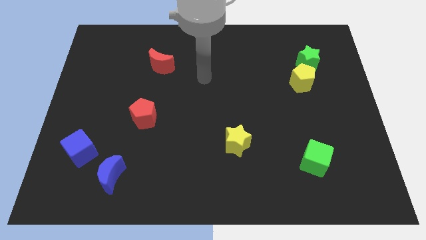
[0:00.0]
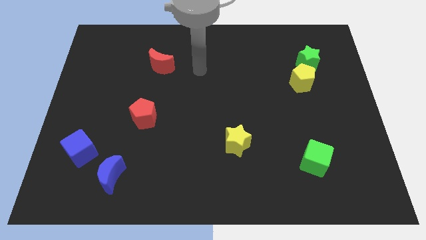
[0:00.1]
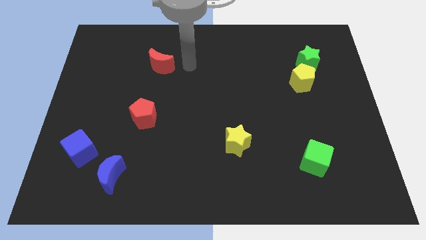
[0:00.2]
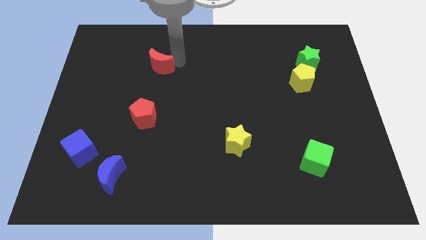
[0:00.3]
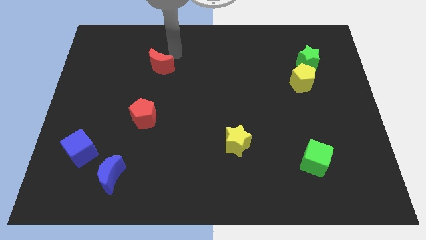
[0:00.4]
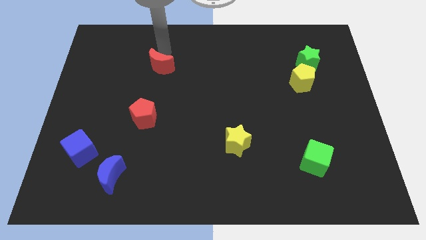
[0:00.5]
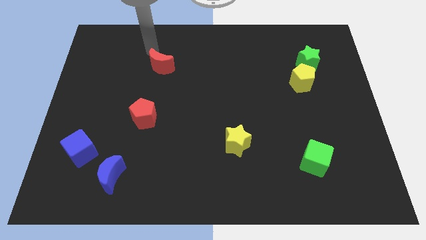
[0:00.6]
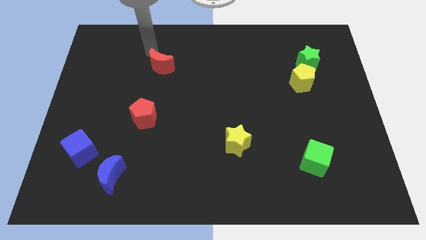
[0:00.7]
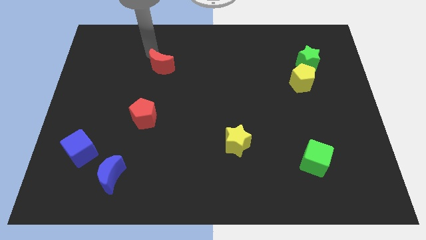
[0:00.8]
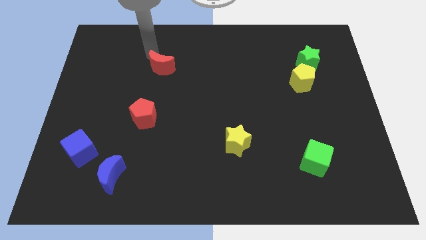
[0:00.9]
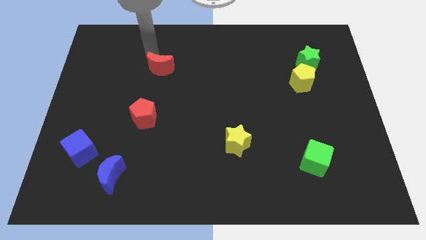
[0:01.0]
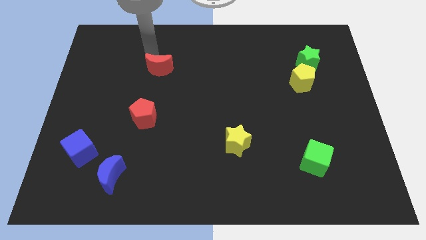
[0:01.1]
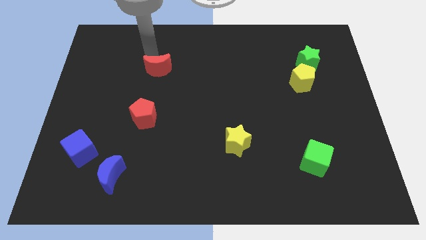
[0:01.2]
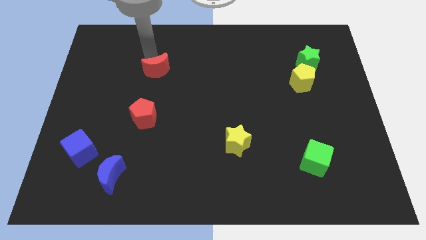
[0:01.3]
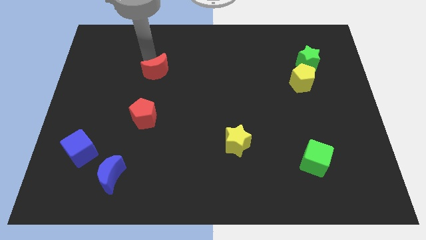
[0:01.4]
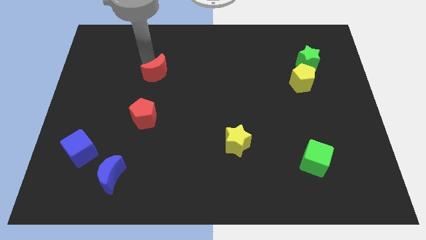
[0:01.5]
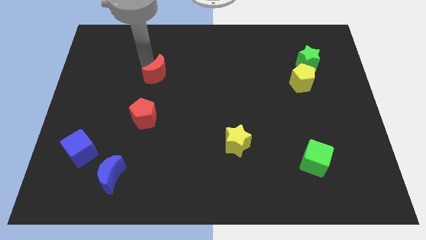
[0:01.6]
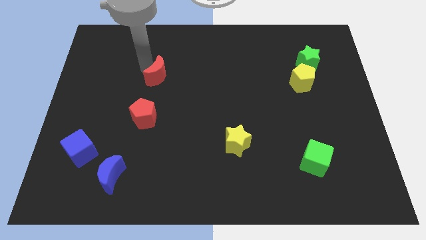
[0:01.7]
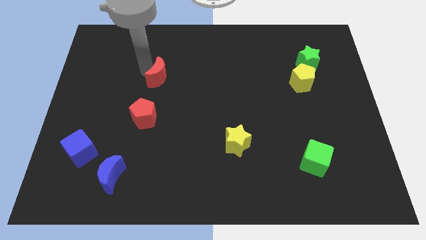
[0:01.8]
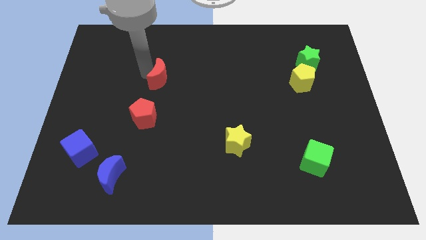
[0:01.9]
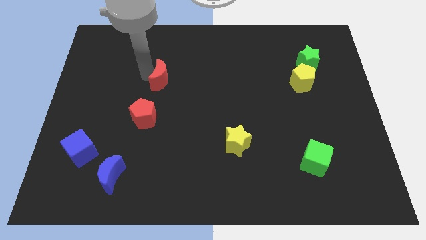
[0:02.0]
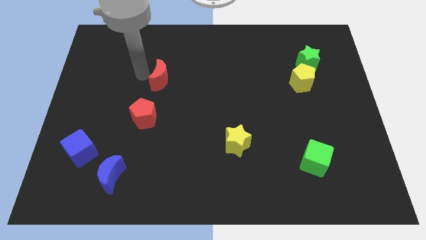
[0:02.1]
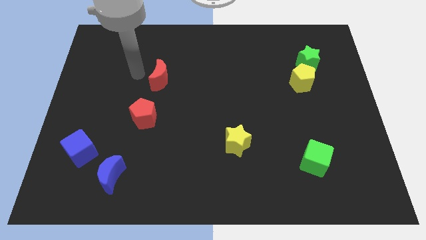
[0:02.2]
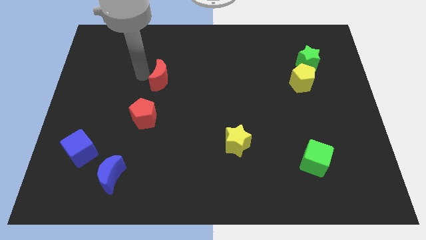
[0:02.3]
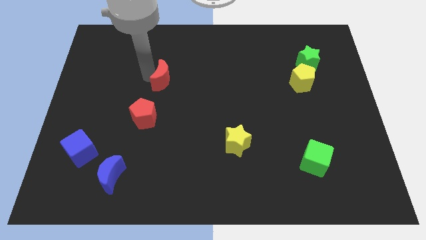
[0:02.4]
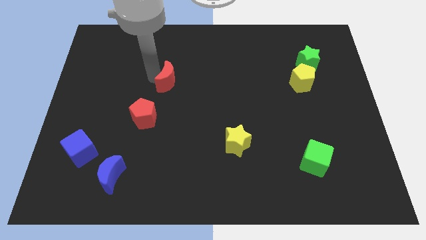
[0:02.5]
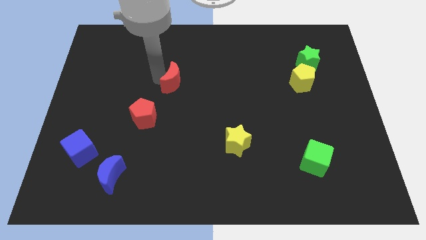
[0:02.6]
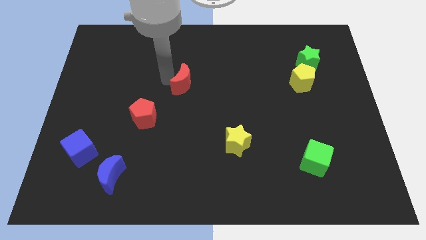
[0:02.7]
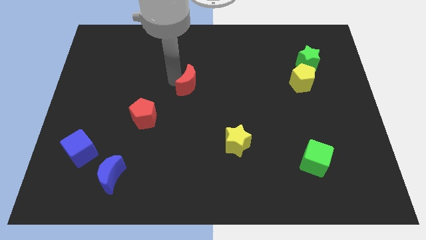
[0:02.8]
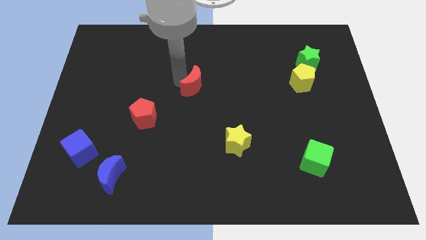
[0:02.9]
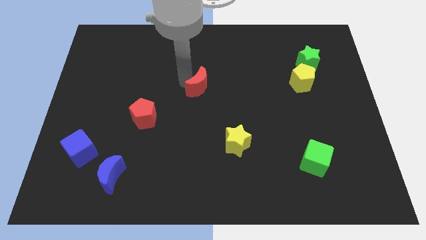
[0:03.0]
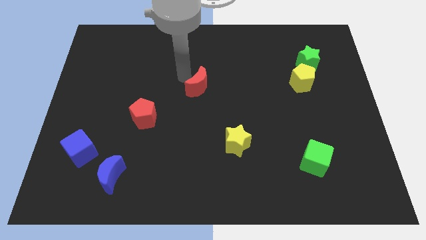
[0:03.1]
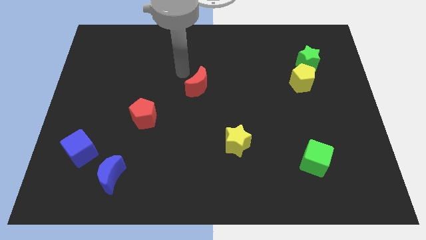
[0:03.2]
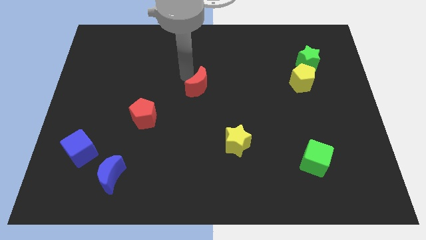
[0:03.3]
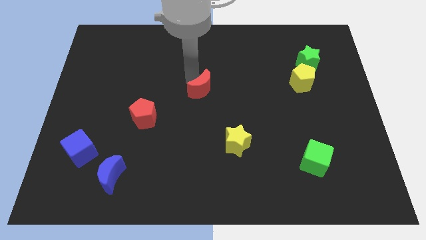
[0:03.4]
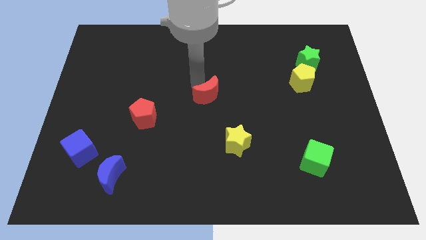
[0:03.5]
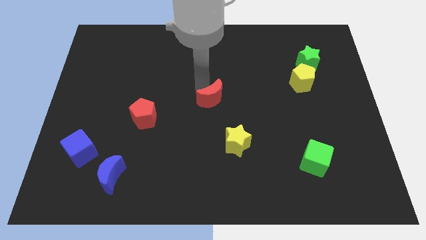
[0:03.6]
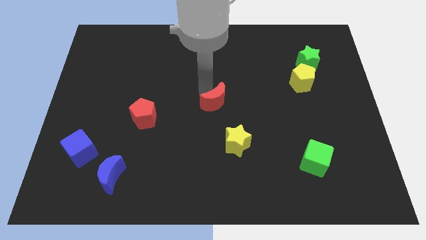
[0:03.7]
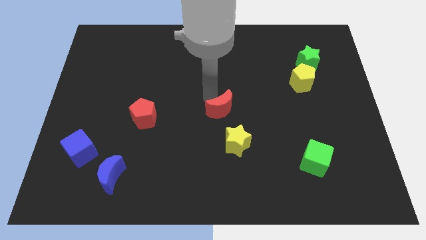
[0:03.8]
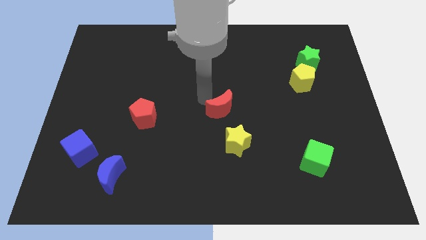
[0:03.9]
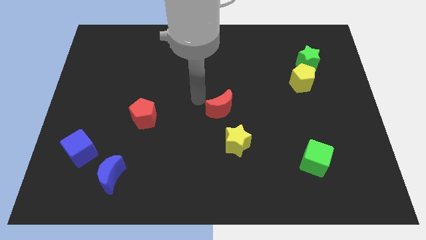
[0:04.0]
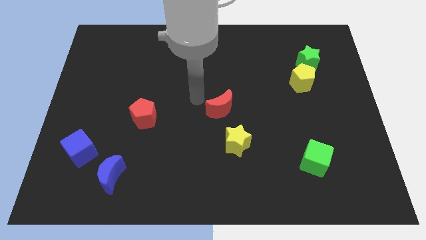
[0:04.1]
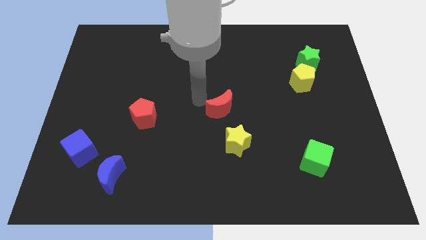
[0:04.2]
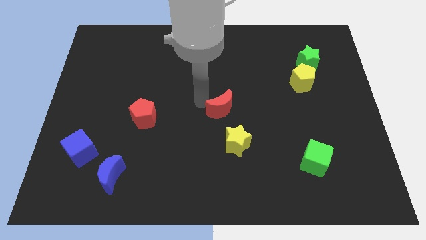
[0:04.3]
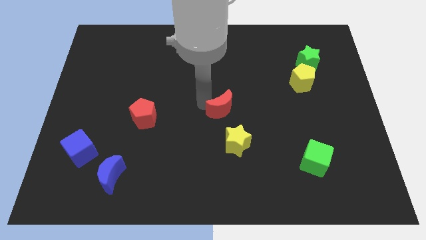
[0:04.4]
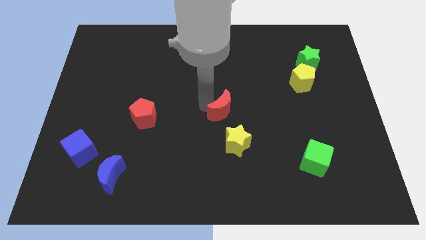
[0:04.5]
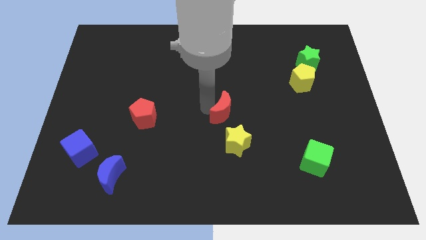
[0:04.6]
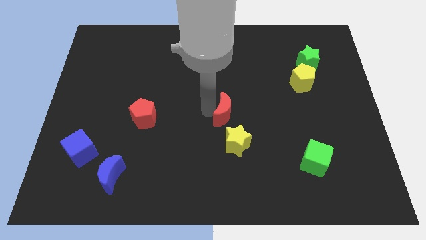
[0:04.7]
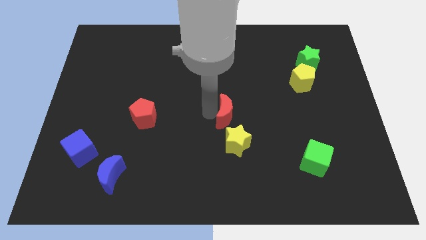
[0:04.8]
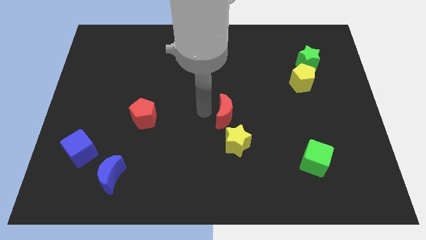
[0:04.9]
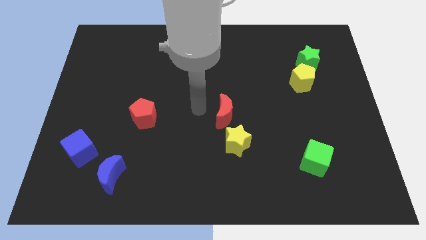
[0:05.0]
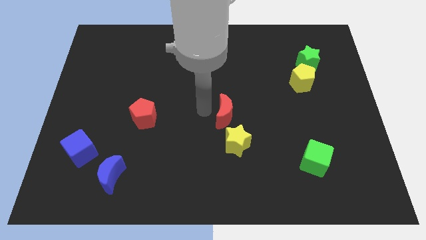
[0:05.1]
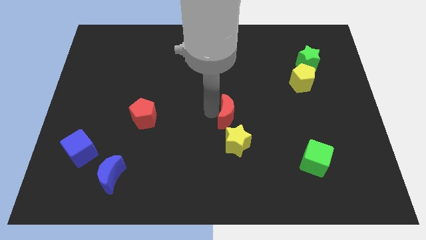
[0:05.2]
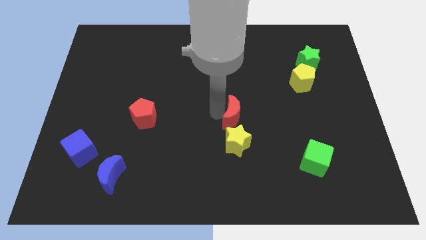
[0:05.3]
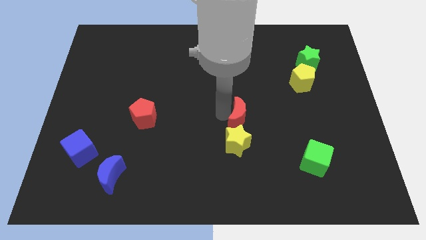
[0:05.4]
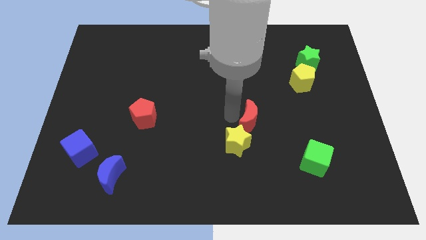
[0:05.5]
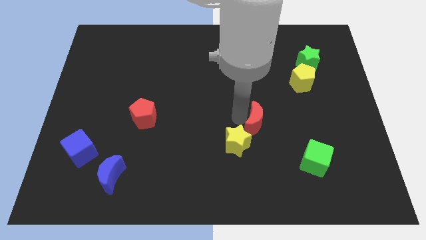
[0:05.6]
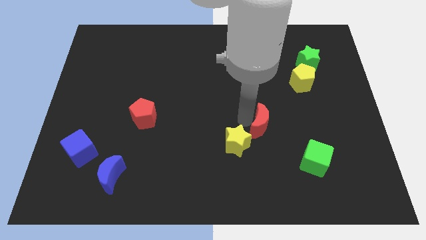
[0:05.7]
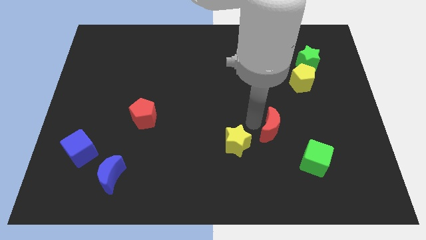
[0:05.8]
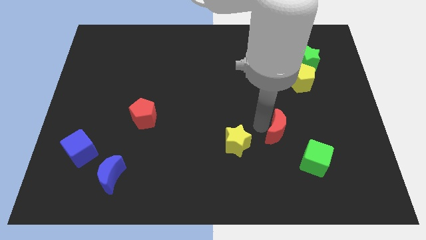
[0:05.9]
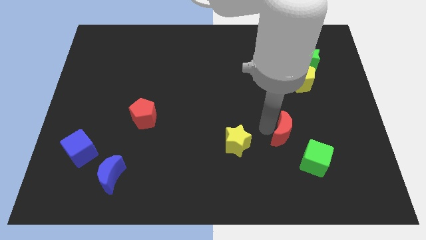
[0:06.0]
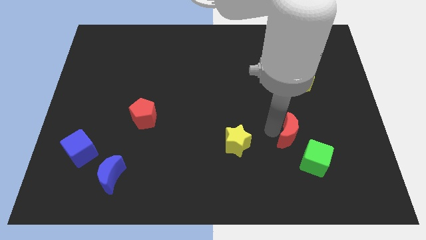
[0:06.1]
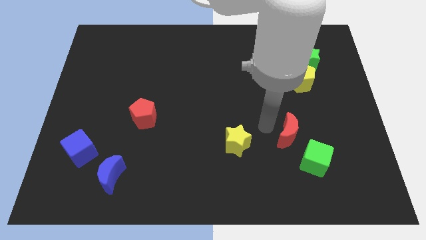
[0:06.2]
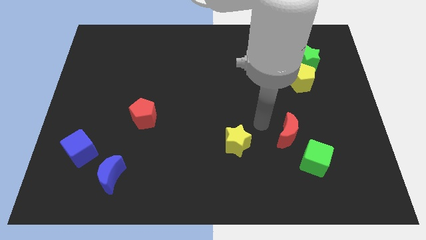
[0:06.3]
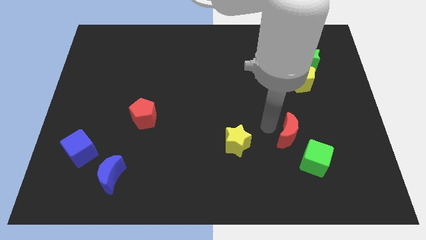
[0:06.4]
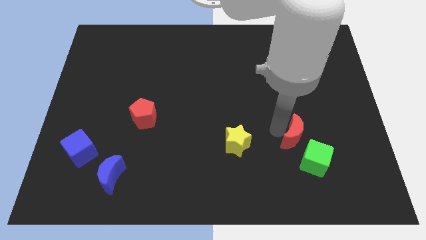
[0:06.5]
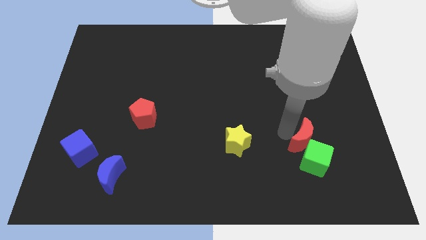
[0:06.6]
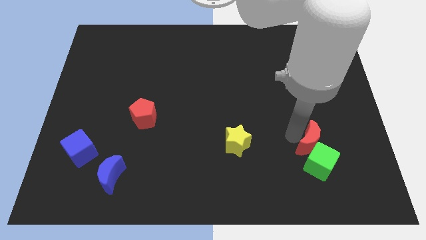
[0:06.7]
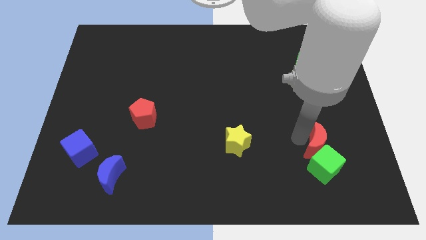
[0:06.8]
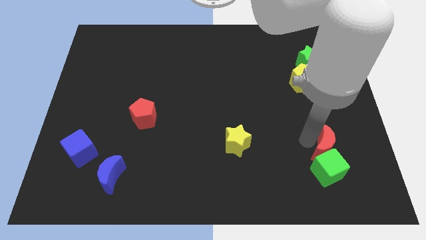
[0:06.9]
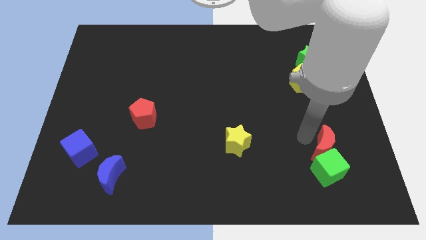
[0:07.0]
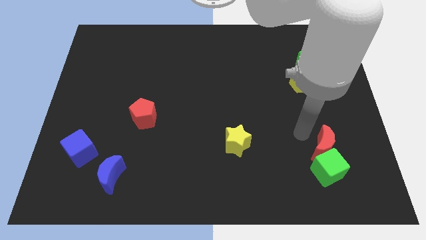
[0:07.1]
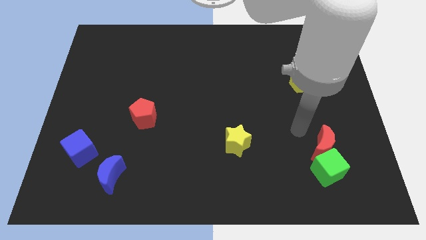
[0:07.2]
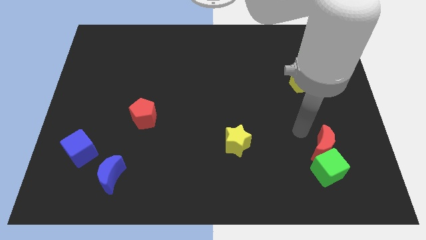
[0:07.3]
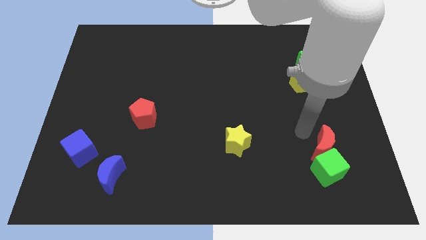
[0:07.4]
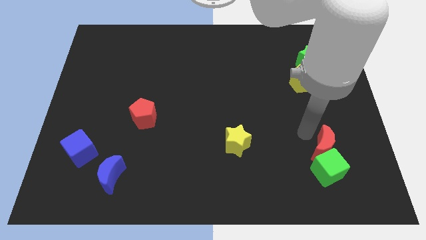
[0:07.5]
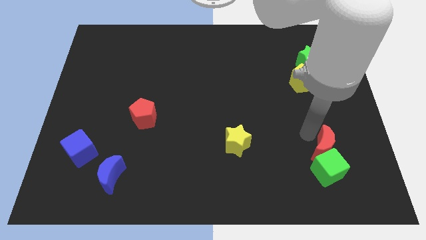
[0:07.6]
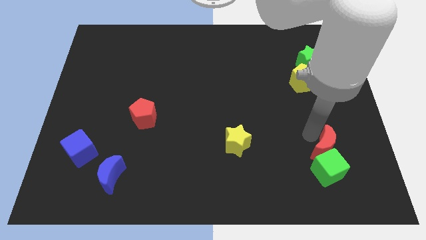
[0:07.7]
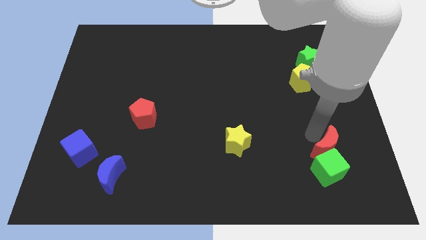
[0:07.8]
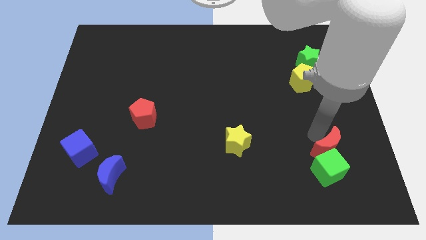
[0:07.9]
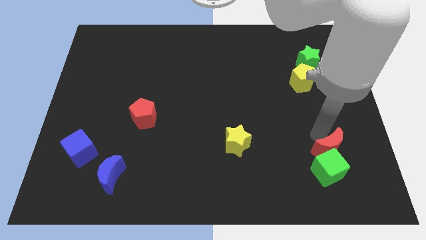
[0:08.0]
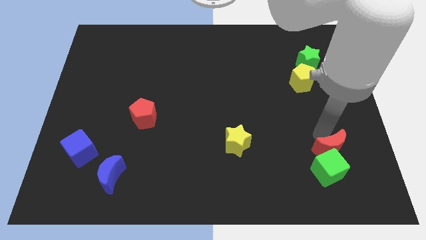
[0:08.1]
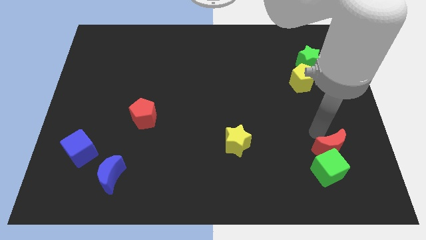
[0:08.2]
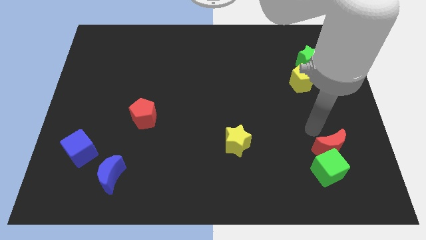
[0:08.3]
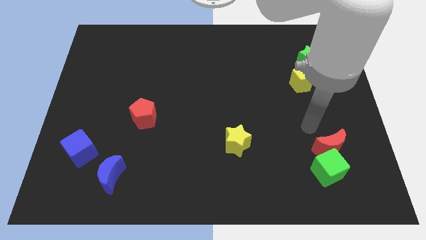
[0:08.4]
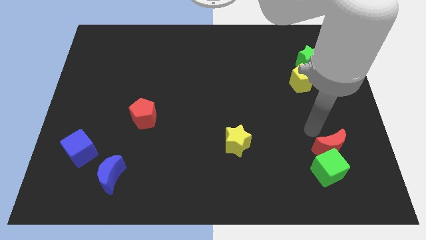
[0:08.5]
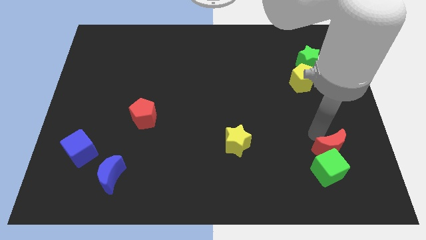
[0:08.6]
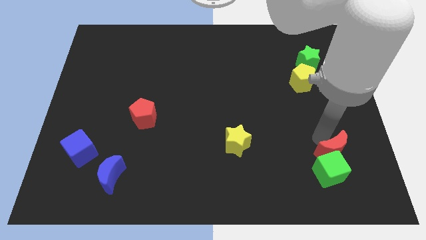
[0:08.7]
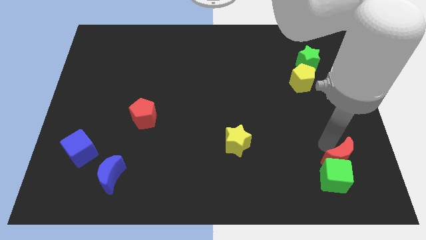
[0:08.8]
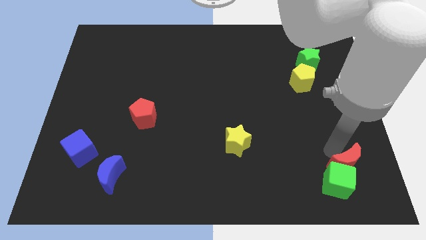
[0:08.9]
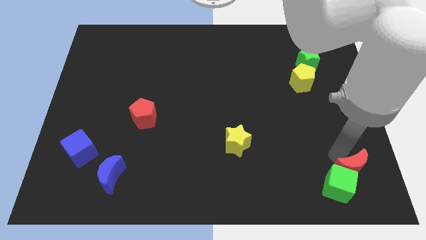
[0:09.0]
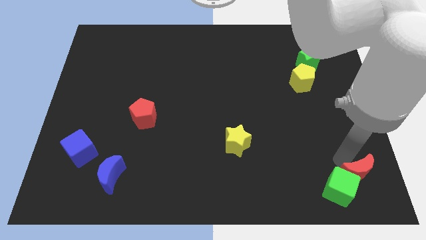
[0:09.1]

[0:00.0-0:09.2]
move the red moon to the bottom right
